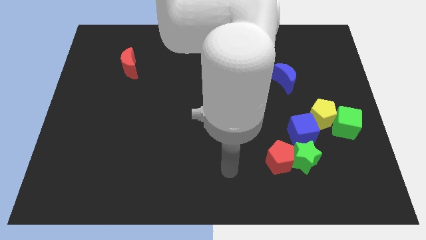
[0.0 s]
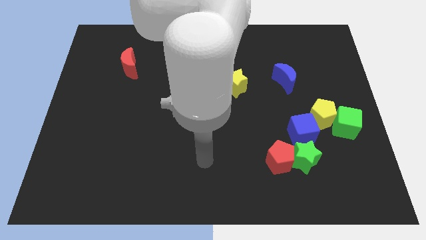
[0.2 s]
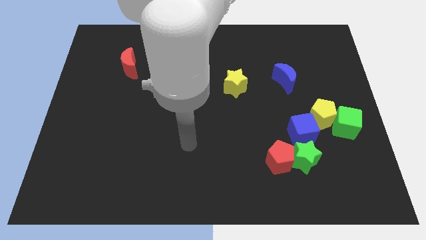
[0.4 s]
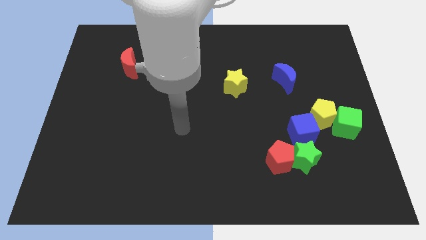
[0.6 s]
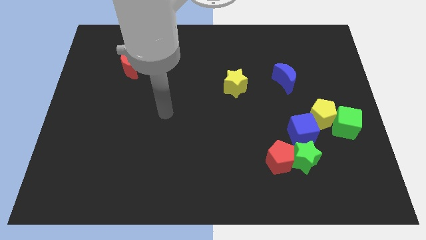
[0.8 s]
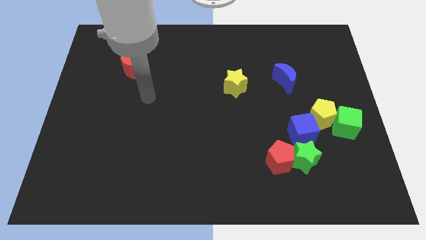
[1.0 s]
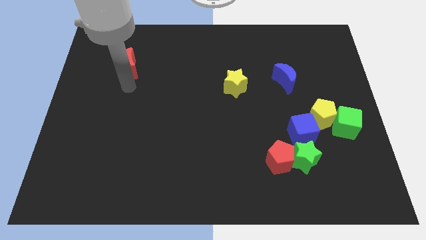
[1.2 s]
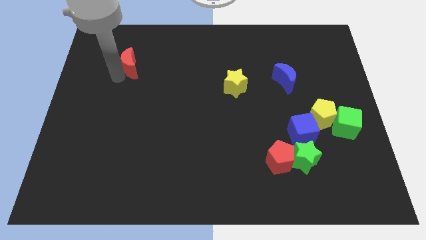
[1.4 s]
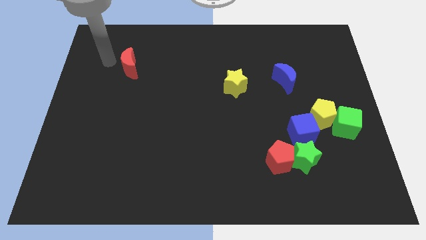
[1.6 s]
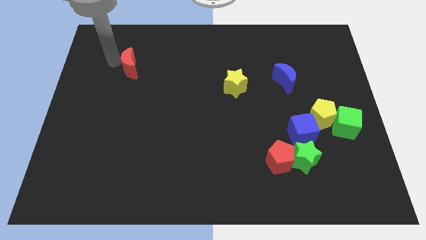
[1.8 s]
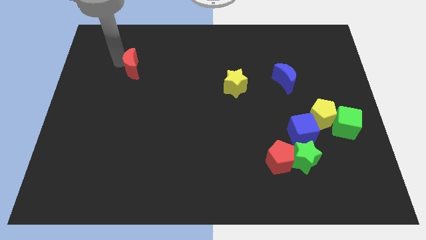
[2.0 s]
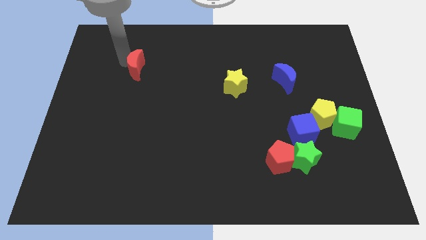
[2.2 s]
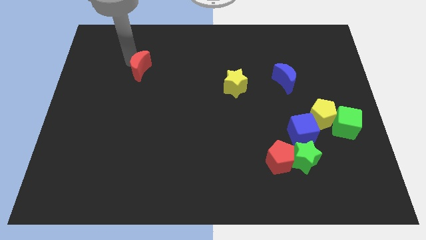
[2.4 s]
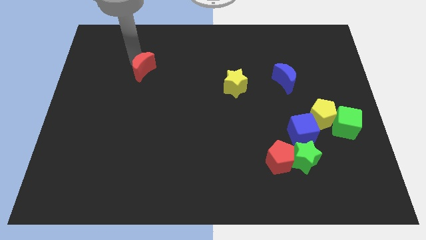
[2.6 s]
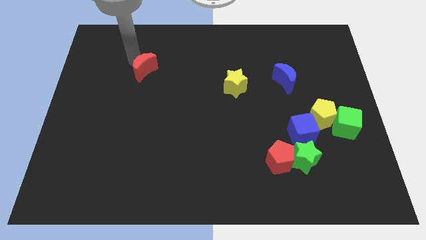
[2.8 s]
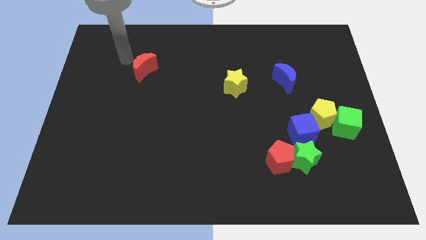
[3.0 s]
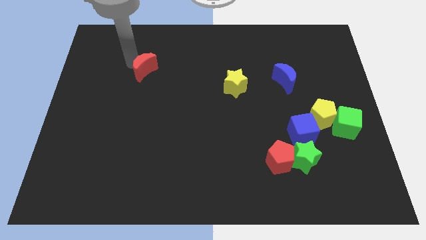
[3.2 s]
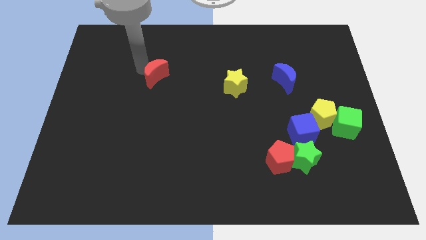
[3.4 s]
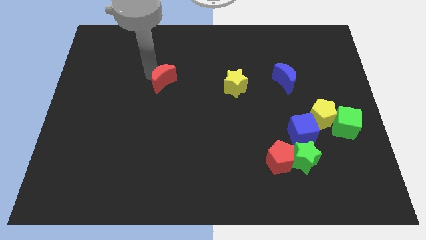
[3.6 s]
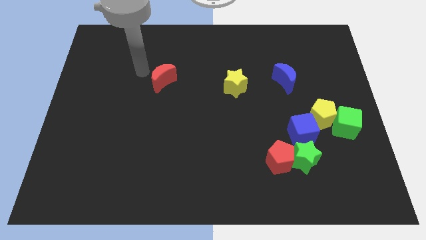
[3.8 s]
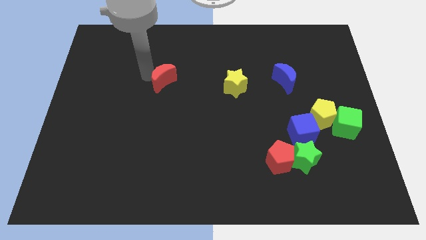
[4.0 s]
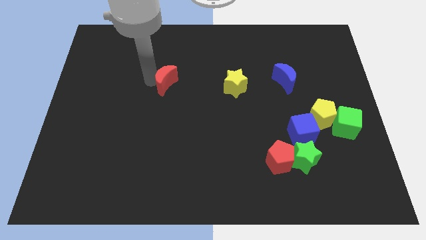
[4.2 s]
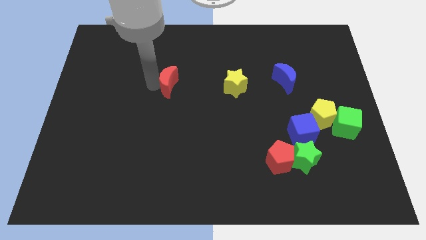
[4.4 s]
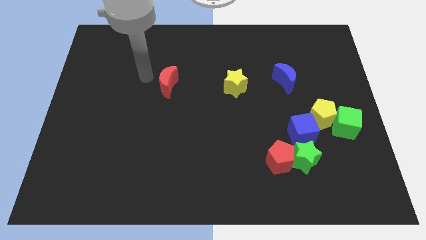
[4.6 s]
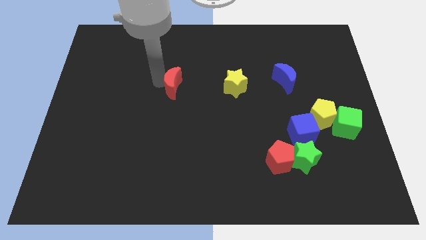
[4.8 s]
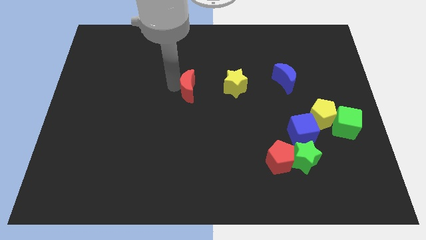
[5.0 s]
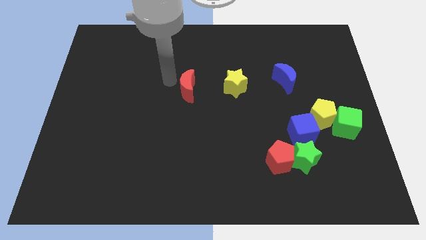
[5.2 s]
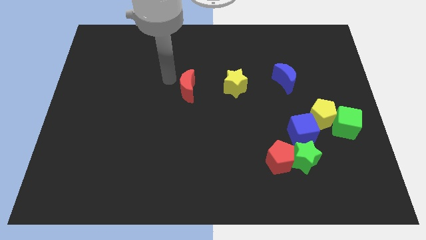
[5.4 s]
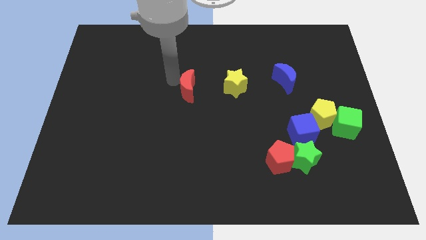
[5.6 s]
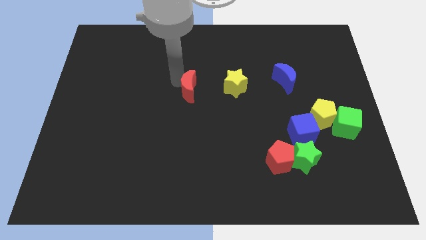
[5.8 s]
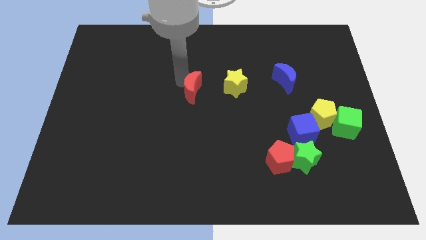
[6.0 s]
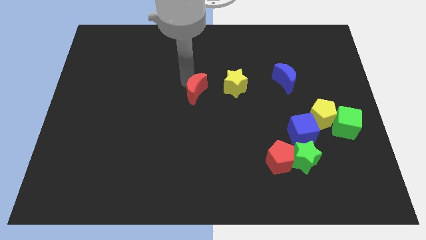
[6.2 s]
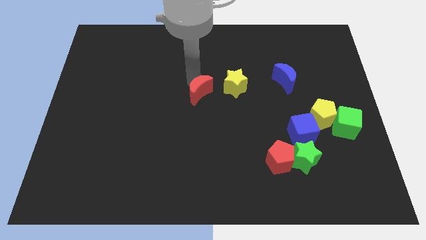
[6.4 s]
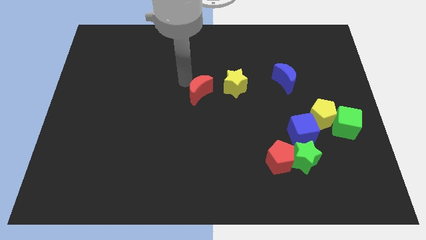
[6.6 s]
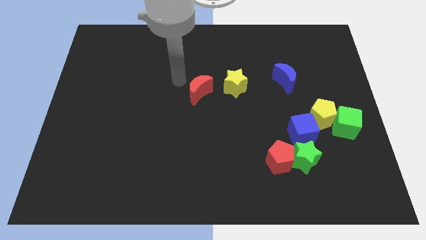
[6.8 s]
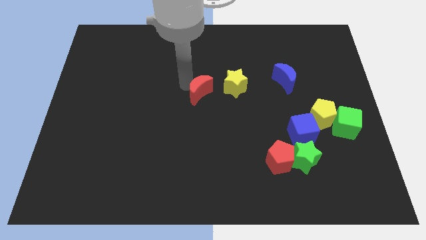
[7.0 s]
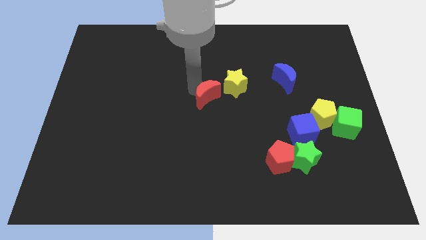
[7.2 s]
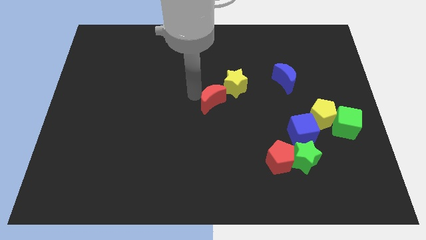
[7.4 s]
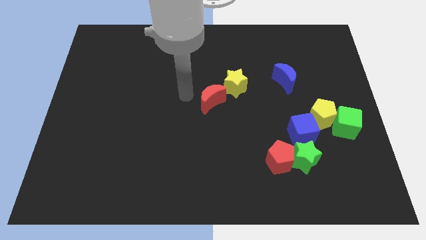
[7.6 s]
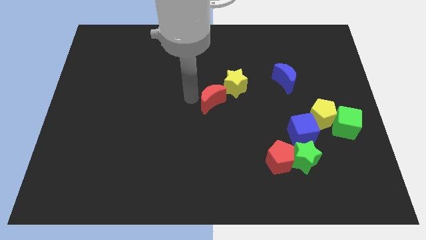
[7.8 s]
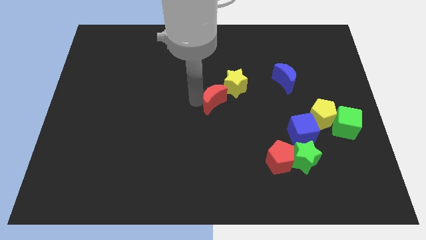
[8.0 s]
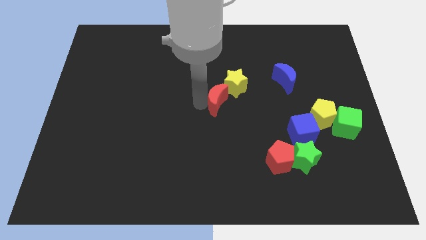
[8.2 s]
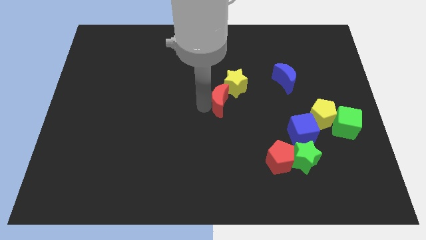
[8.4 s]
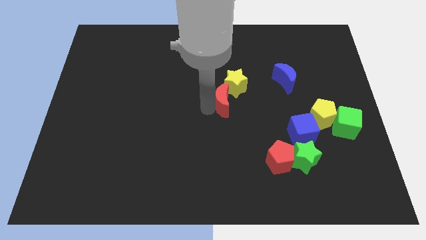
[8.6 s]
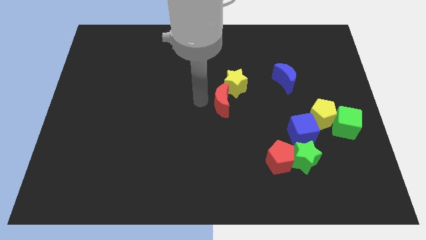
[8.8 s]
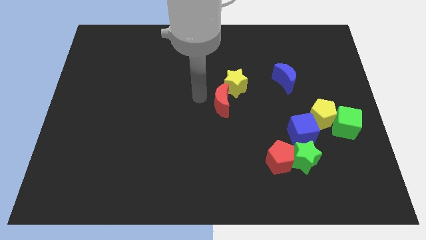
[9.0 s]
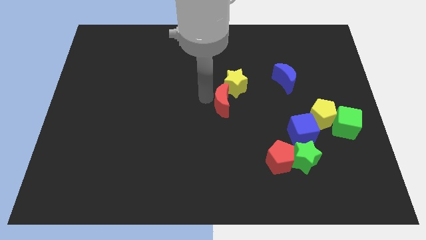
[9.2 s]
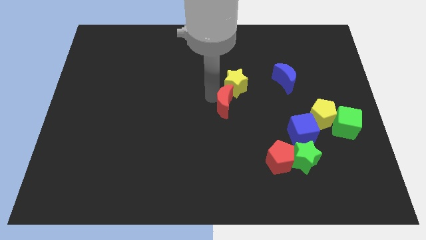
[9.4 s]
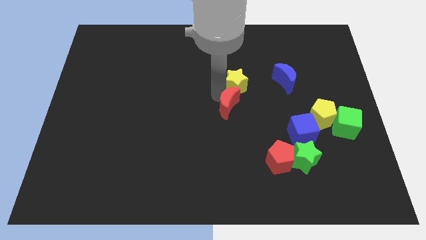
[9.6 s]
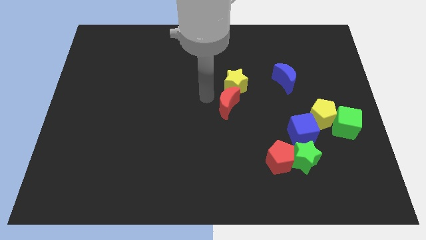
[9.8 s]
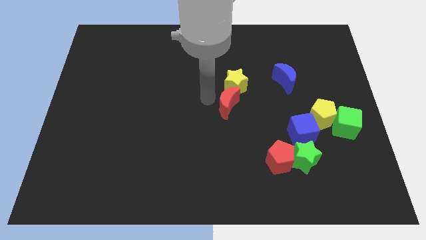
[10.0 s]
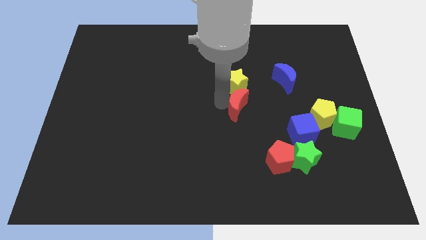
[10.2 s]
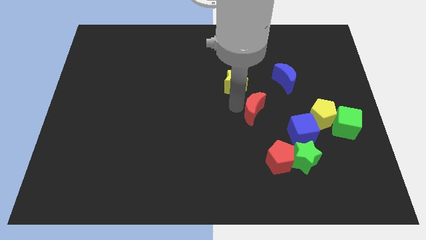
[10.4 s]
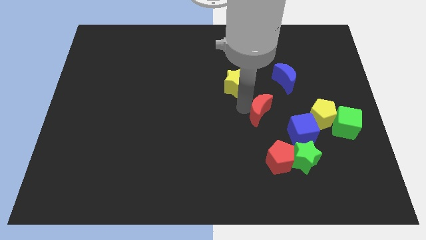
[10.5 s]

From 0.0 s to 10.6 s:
slide the red moon to the top of the red pentagon

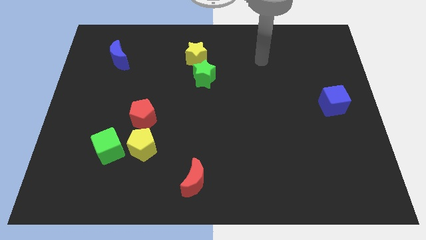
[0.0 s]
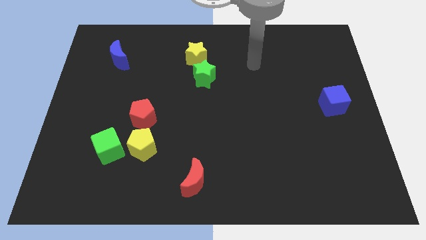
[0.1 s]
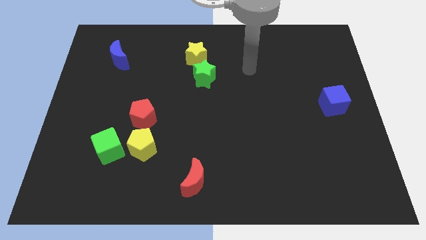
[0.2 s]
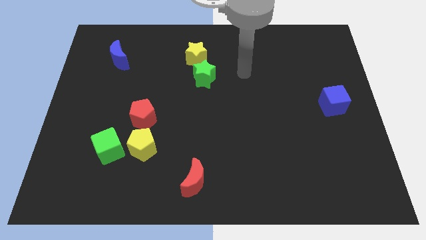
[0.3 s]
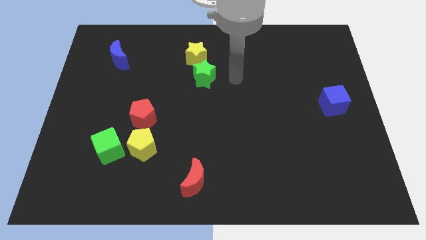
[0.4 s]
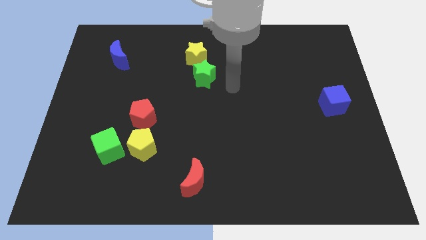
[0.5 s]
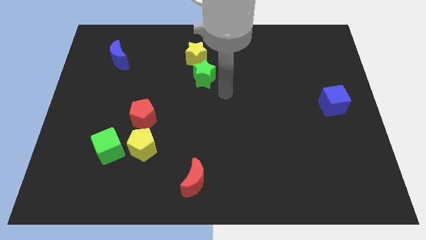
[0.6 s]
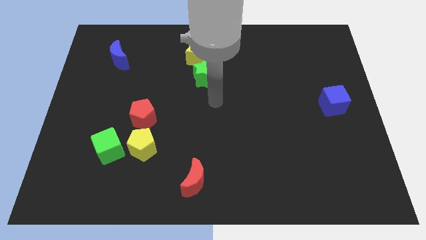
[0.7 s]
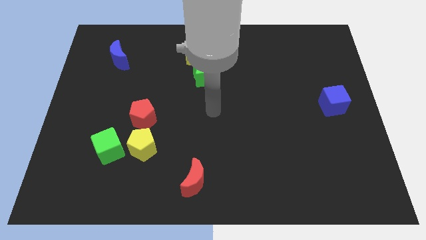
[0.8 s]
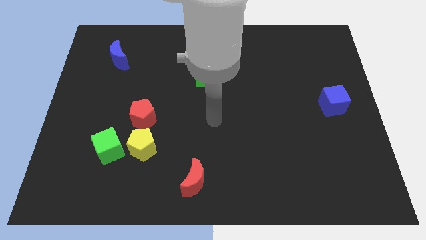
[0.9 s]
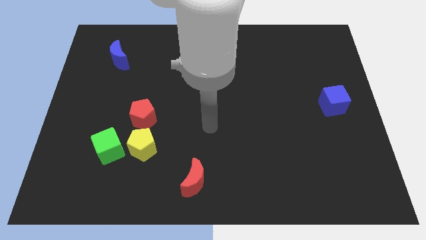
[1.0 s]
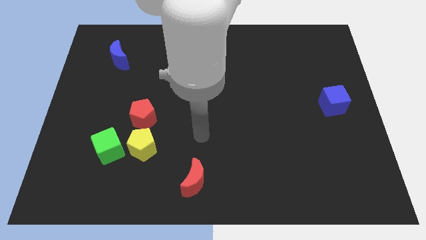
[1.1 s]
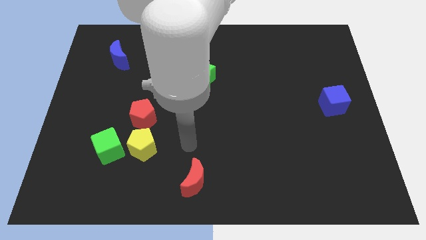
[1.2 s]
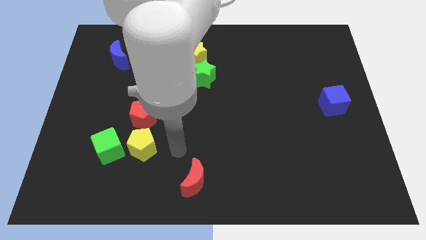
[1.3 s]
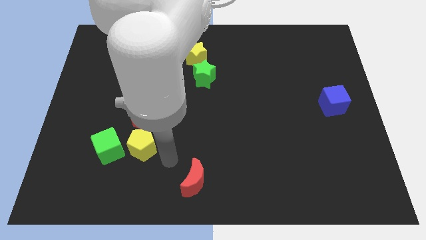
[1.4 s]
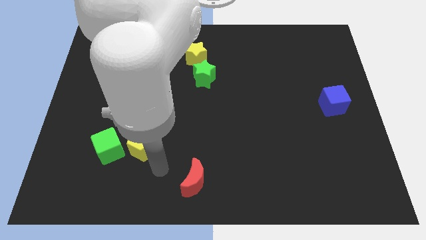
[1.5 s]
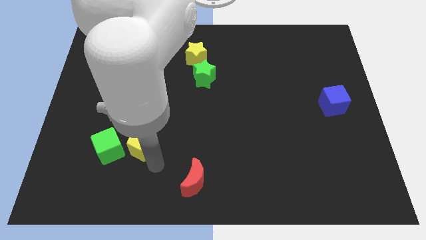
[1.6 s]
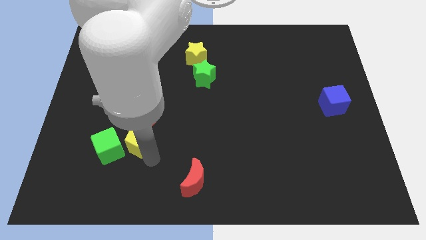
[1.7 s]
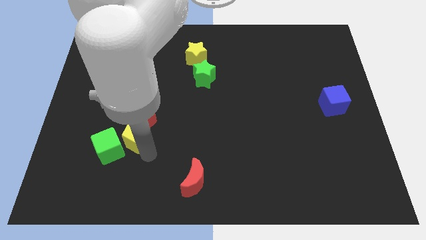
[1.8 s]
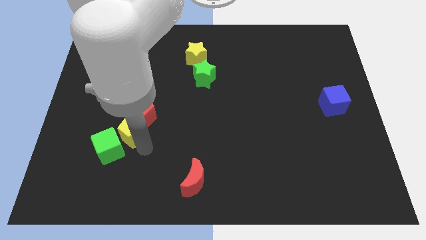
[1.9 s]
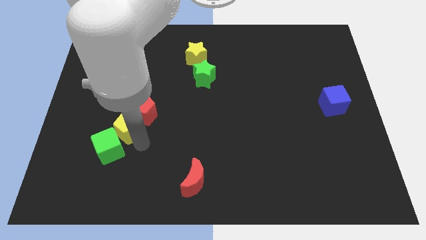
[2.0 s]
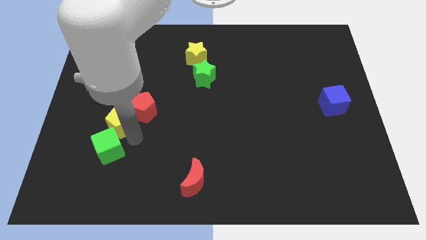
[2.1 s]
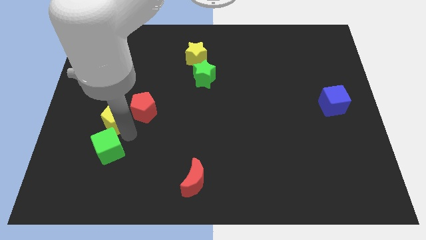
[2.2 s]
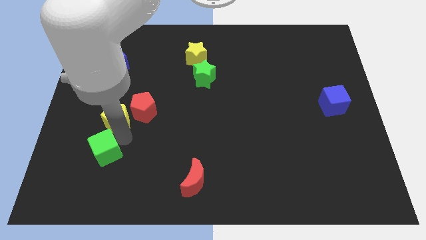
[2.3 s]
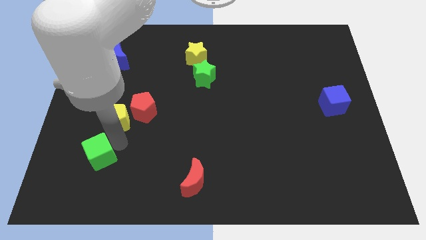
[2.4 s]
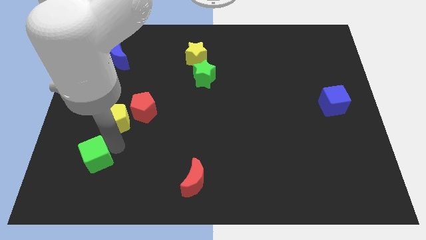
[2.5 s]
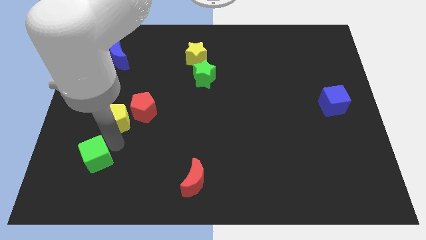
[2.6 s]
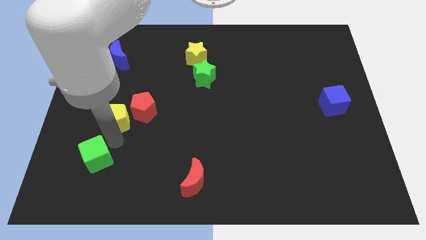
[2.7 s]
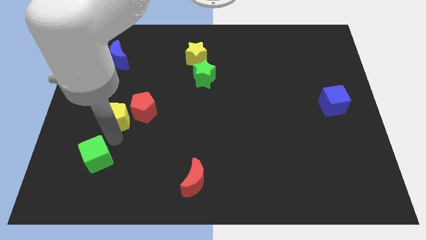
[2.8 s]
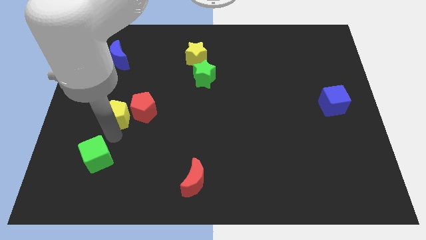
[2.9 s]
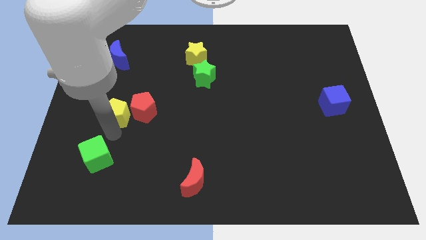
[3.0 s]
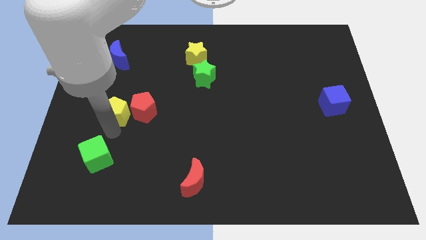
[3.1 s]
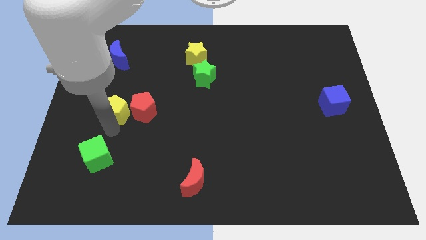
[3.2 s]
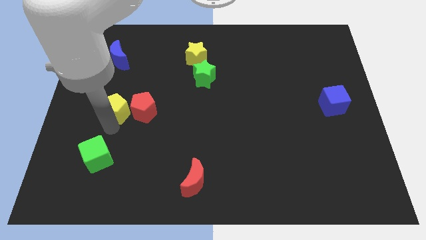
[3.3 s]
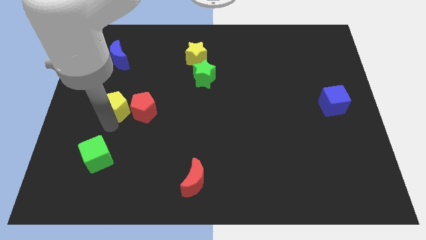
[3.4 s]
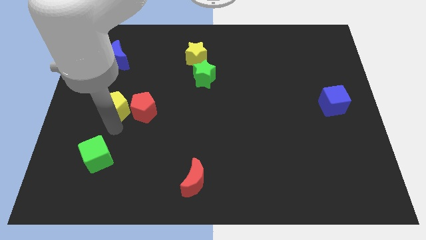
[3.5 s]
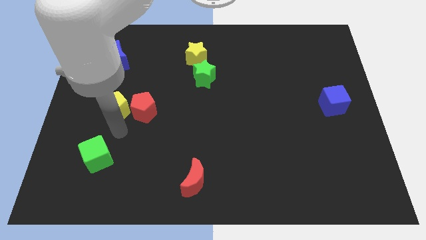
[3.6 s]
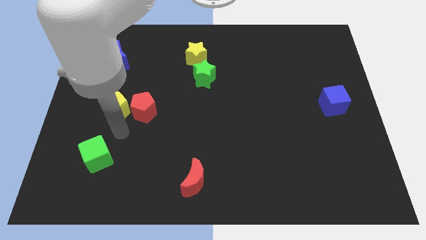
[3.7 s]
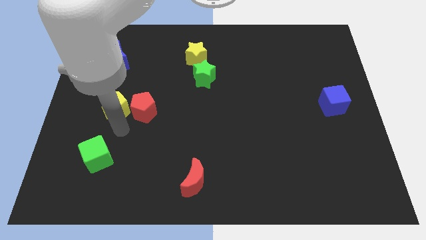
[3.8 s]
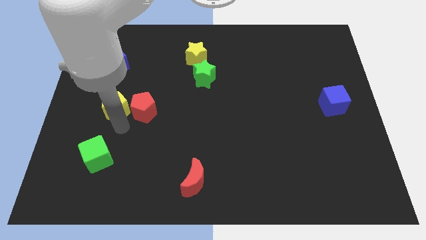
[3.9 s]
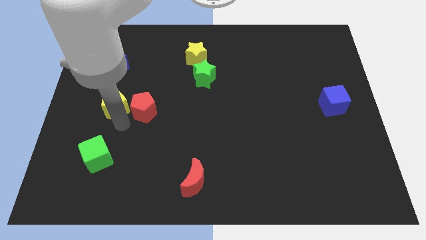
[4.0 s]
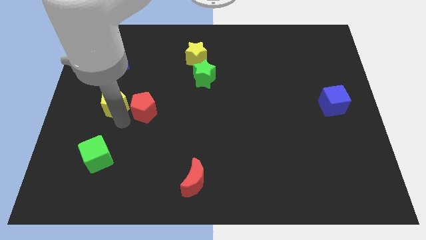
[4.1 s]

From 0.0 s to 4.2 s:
slide the yellow pentagon to the bottom side of the blue moon
